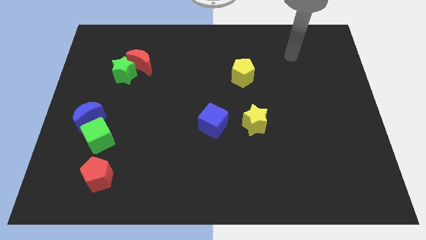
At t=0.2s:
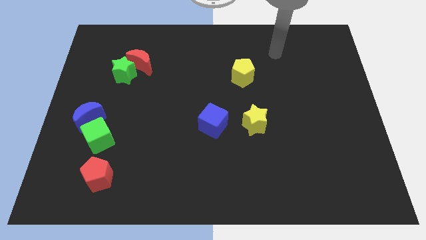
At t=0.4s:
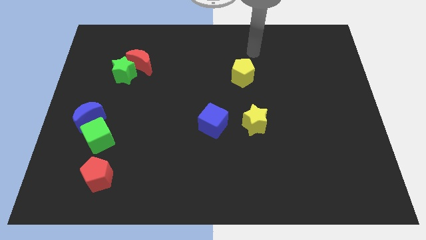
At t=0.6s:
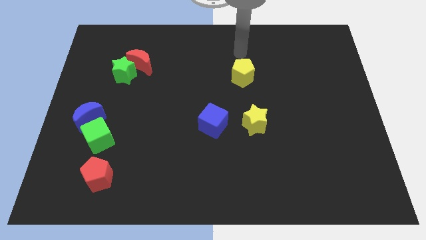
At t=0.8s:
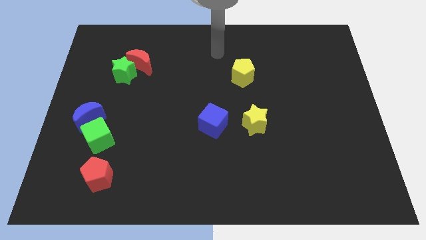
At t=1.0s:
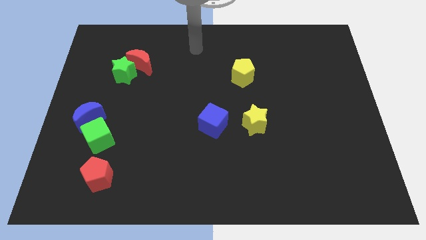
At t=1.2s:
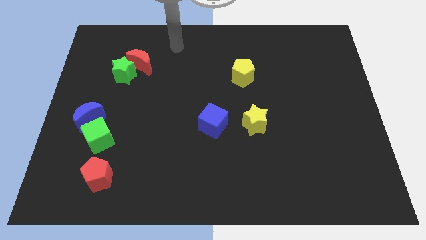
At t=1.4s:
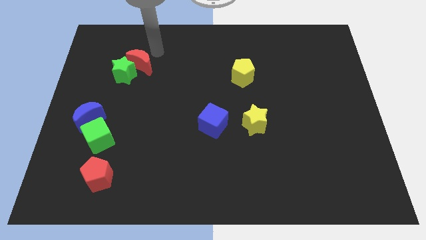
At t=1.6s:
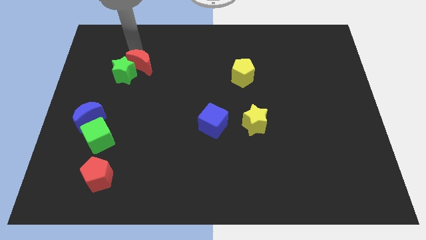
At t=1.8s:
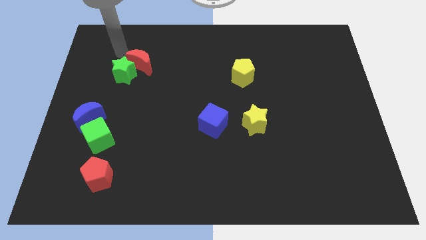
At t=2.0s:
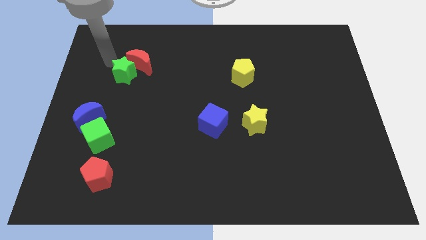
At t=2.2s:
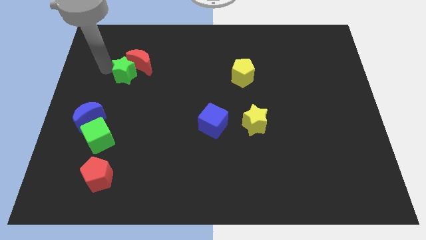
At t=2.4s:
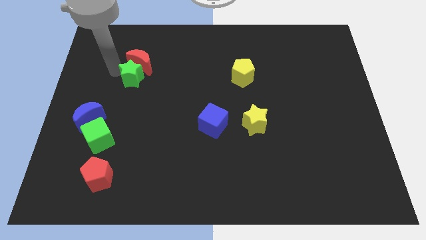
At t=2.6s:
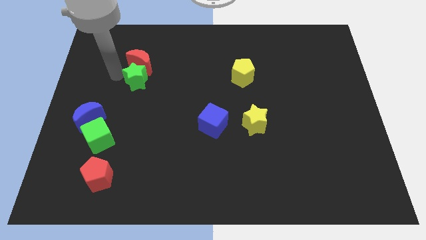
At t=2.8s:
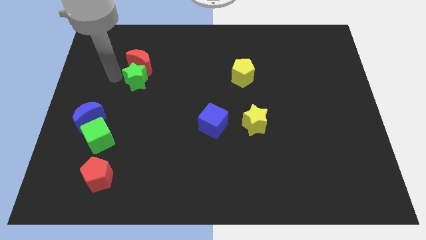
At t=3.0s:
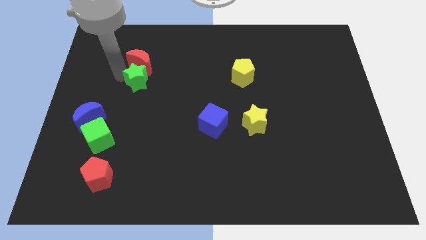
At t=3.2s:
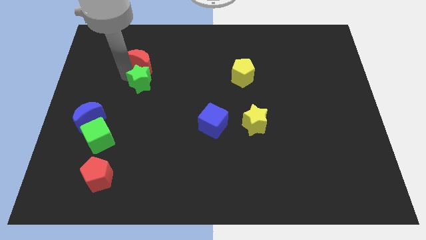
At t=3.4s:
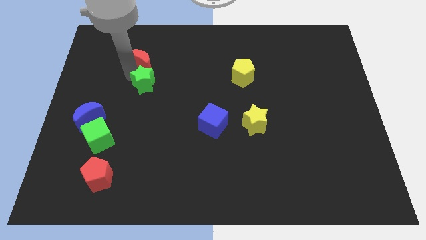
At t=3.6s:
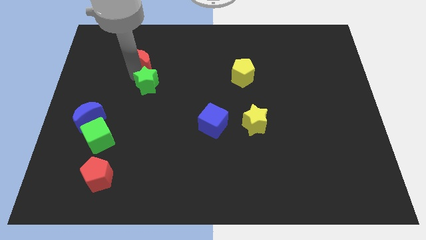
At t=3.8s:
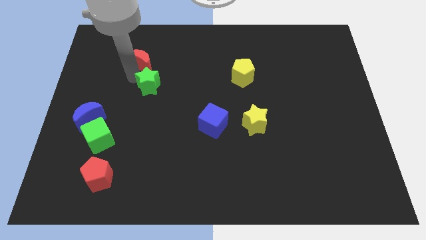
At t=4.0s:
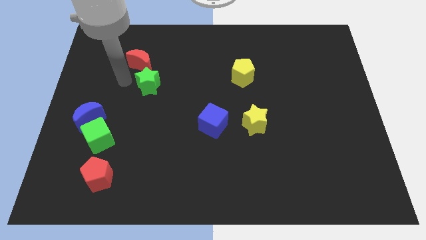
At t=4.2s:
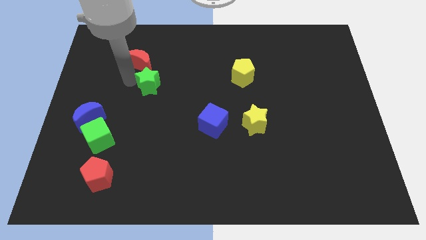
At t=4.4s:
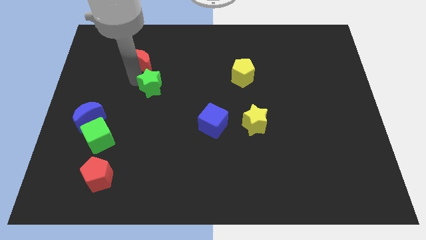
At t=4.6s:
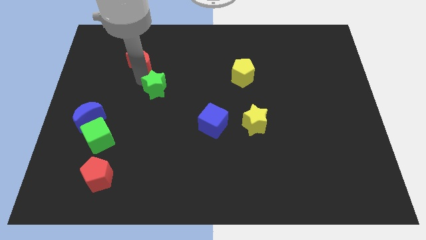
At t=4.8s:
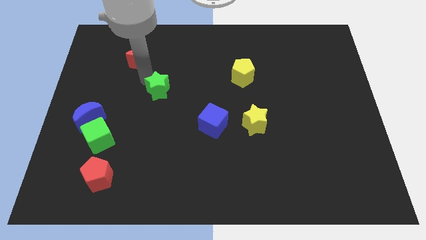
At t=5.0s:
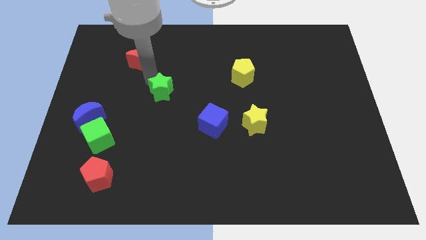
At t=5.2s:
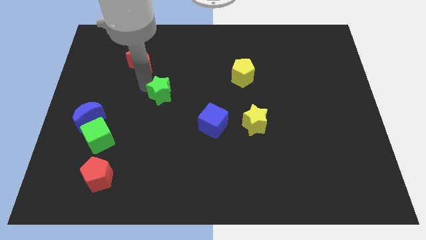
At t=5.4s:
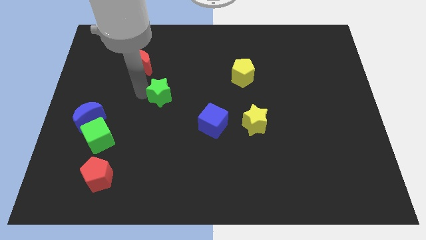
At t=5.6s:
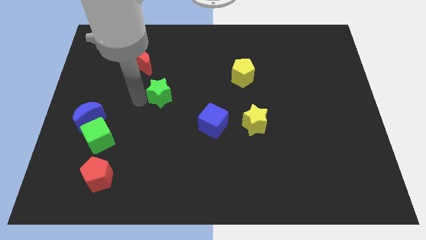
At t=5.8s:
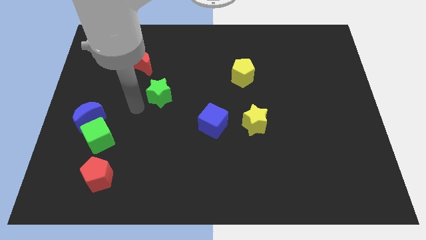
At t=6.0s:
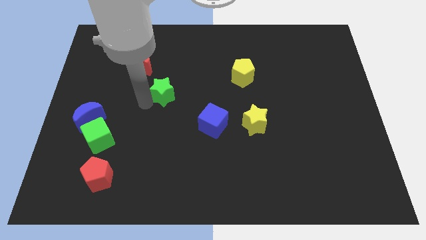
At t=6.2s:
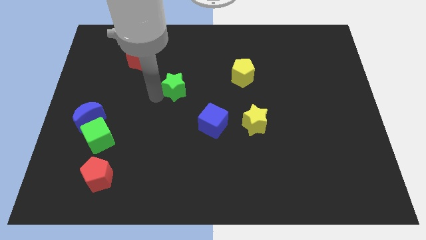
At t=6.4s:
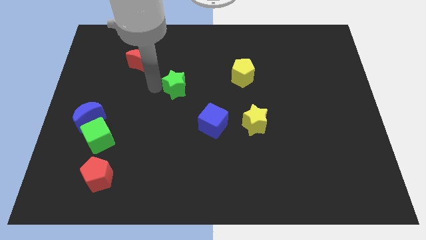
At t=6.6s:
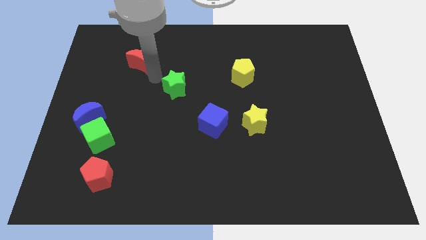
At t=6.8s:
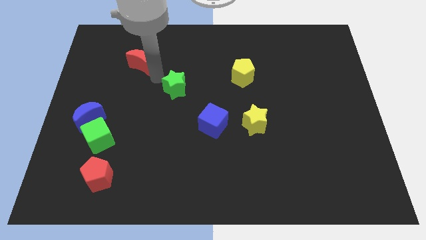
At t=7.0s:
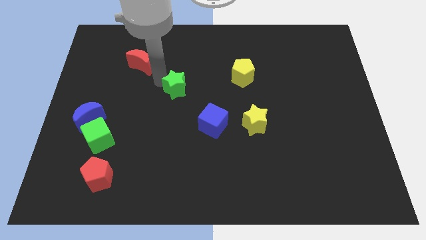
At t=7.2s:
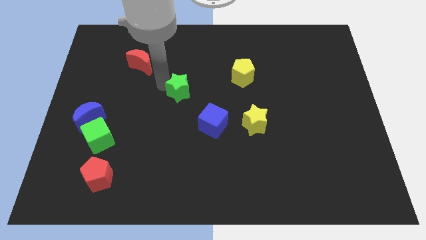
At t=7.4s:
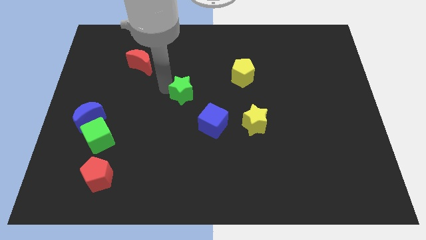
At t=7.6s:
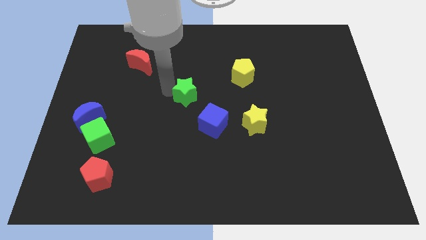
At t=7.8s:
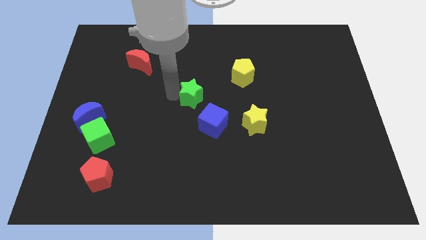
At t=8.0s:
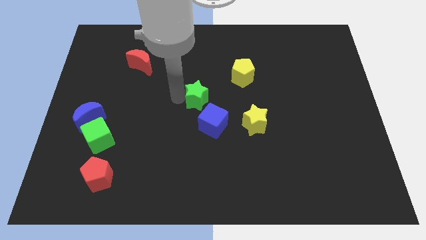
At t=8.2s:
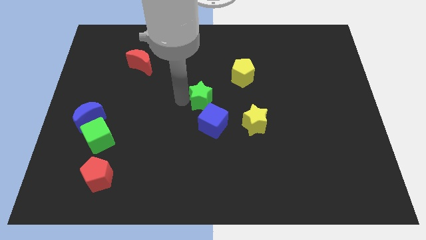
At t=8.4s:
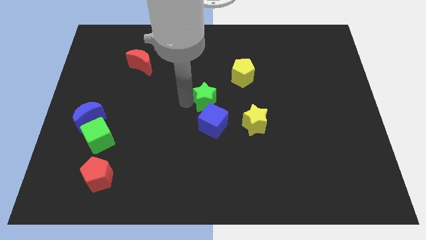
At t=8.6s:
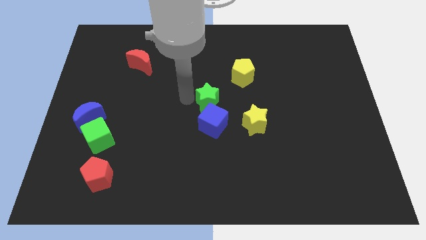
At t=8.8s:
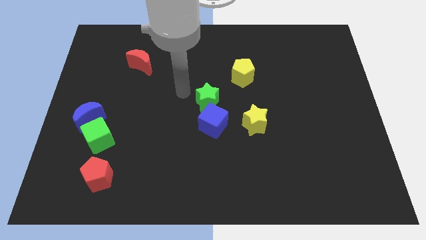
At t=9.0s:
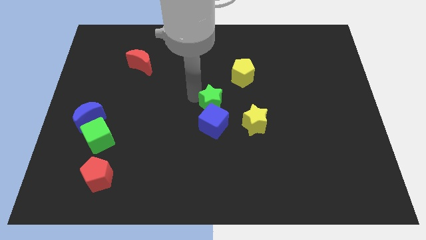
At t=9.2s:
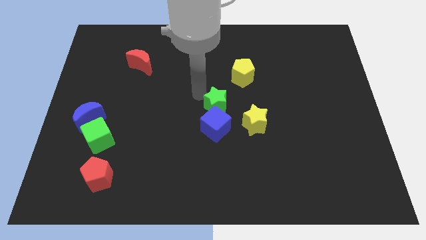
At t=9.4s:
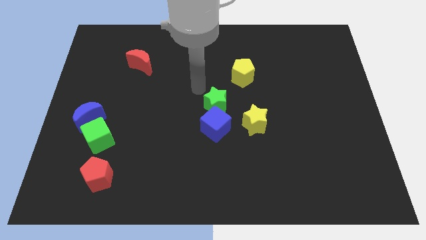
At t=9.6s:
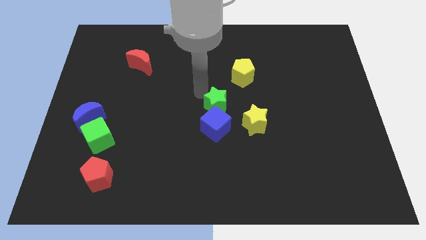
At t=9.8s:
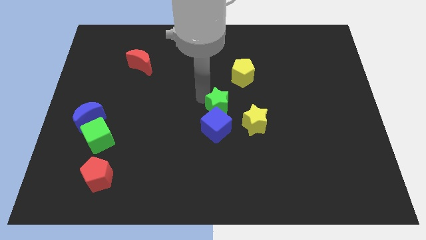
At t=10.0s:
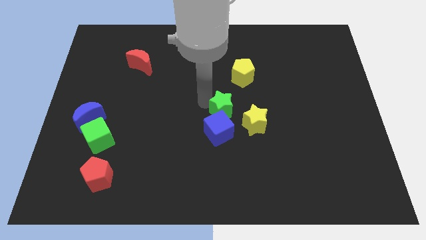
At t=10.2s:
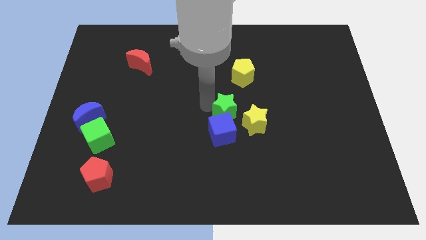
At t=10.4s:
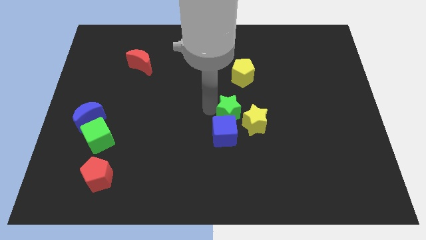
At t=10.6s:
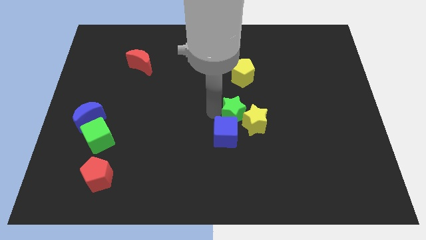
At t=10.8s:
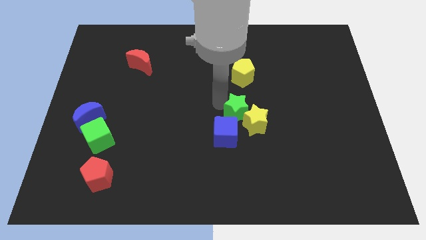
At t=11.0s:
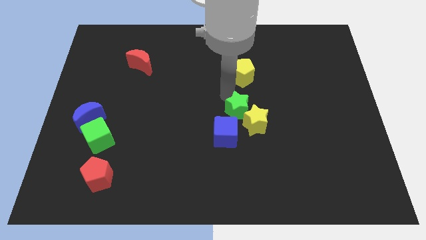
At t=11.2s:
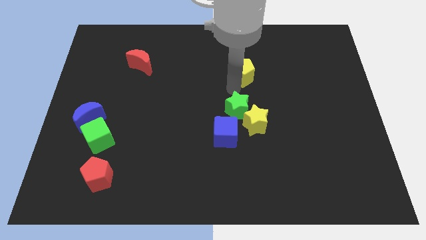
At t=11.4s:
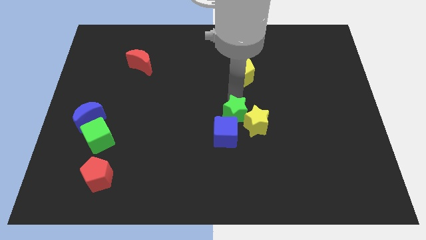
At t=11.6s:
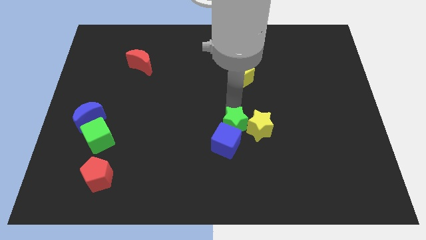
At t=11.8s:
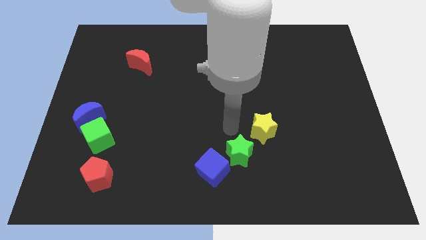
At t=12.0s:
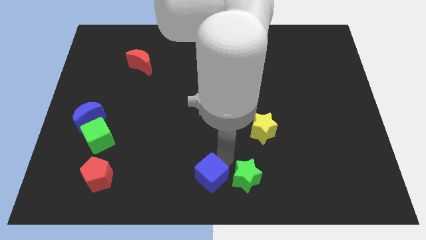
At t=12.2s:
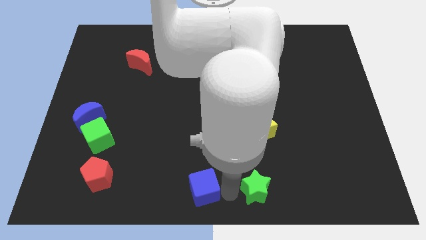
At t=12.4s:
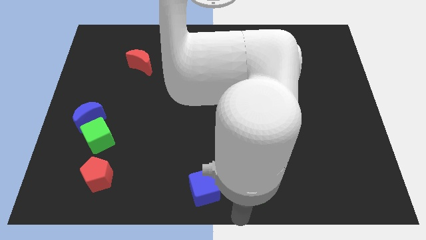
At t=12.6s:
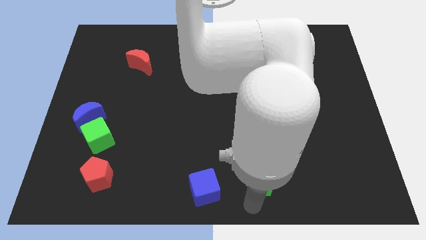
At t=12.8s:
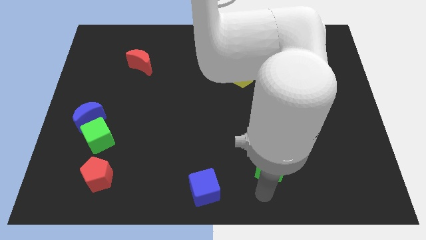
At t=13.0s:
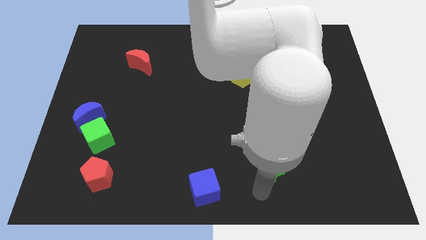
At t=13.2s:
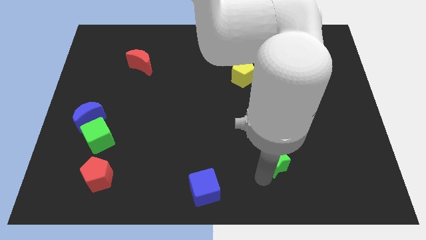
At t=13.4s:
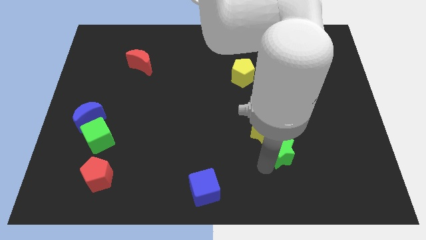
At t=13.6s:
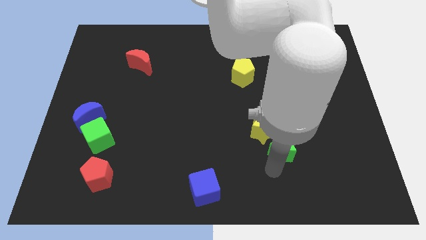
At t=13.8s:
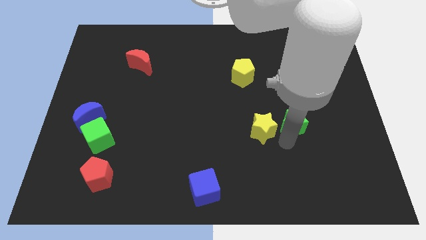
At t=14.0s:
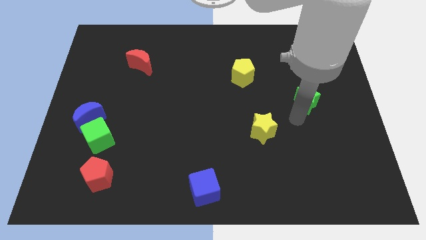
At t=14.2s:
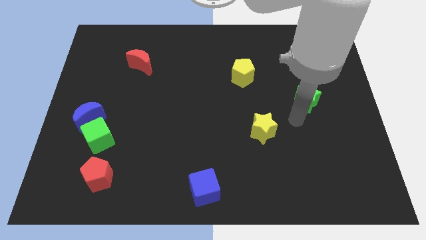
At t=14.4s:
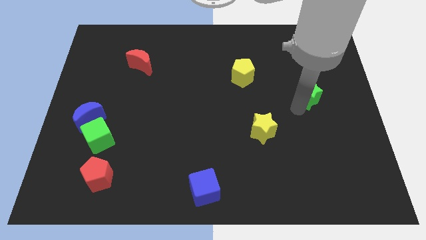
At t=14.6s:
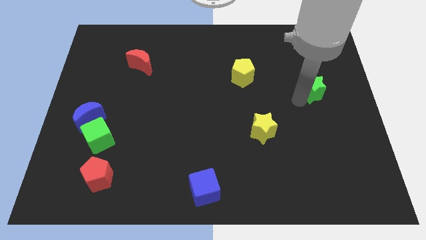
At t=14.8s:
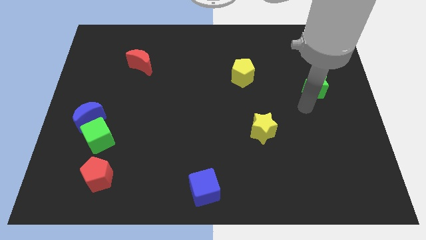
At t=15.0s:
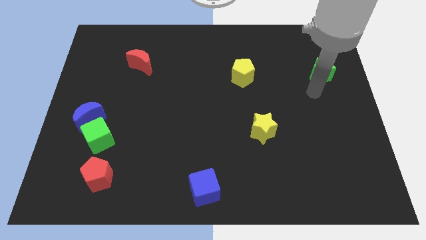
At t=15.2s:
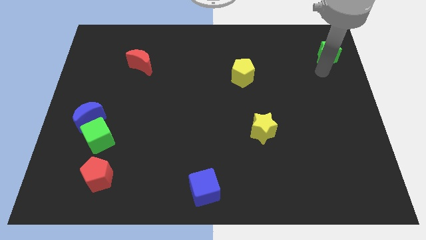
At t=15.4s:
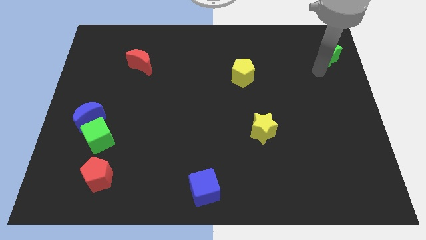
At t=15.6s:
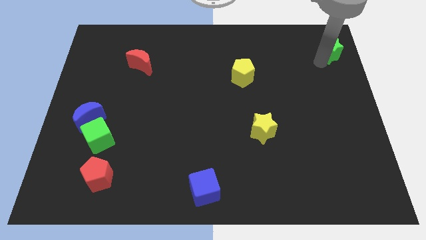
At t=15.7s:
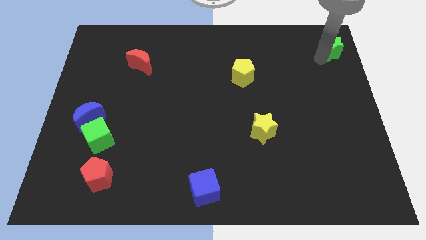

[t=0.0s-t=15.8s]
slide the green star to the top right of the board
